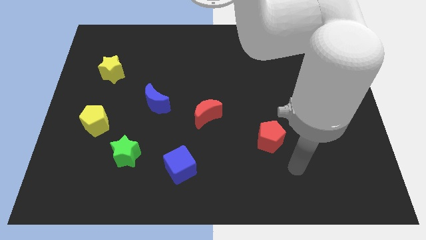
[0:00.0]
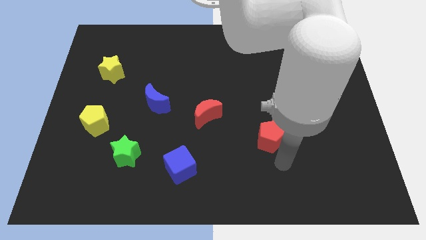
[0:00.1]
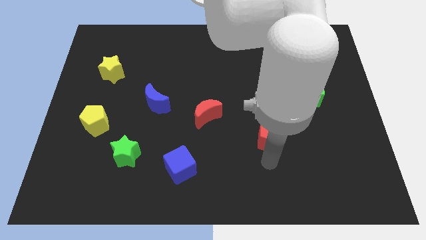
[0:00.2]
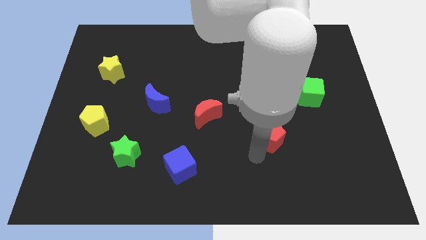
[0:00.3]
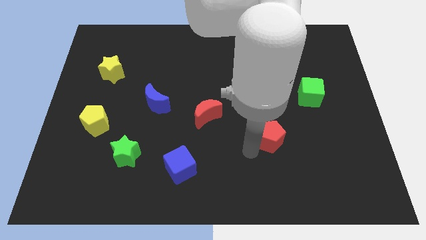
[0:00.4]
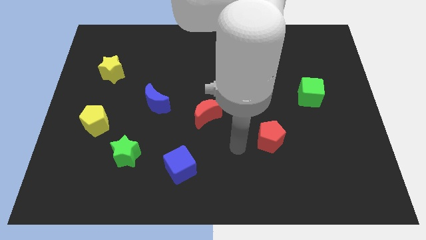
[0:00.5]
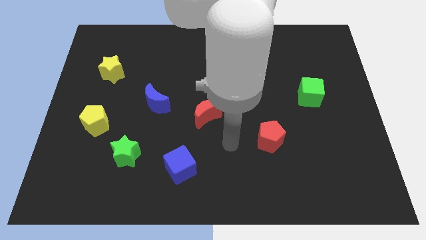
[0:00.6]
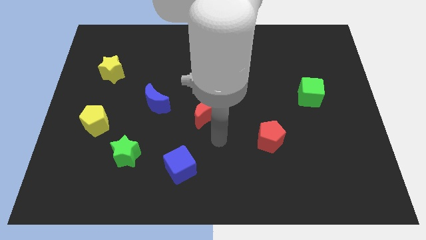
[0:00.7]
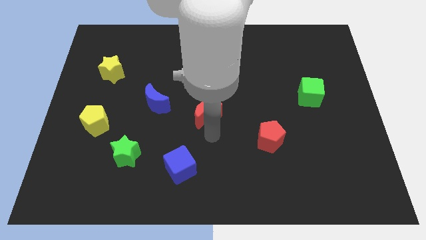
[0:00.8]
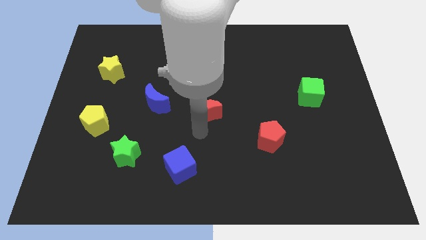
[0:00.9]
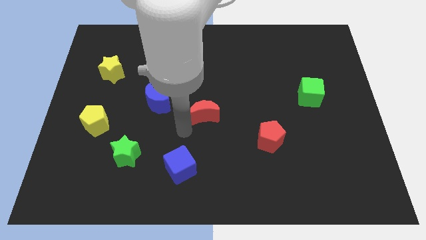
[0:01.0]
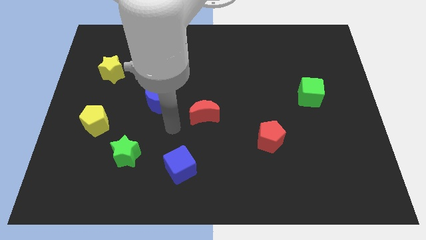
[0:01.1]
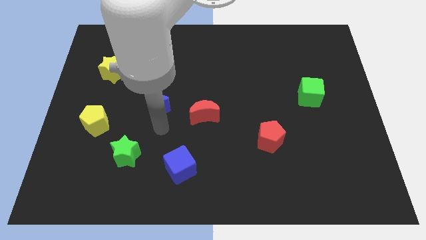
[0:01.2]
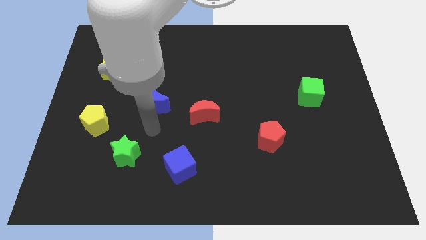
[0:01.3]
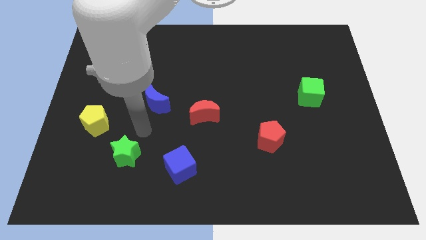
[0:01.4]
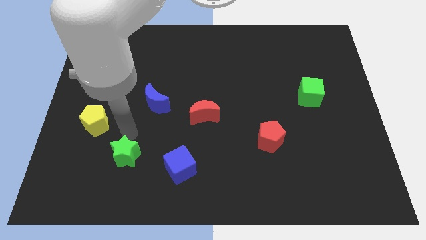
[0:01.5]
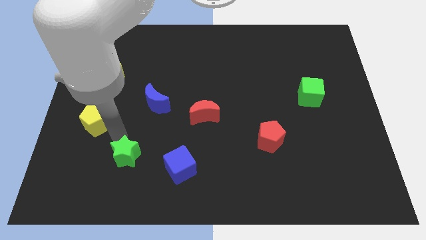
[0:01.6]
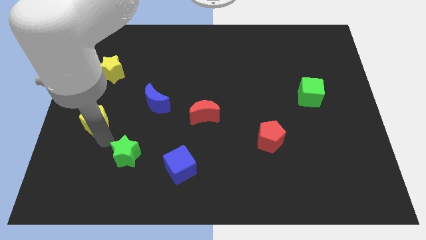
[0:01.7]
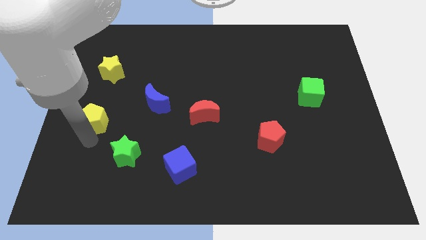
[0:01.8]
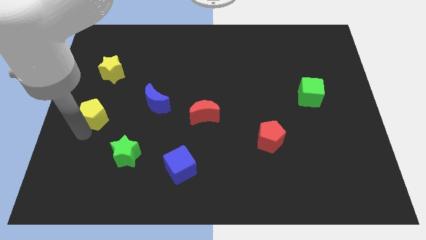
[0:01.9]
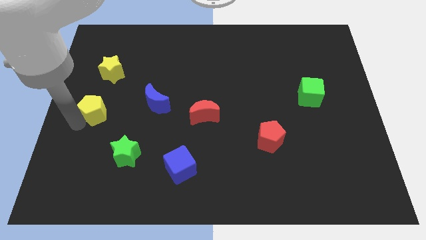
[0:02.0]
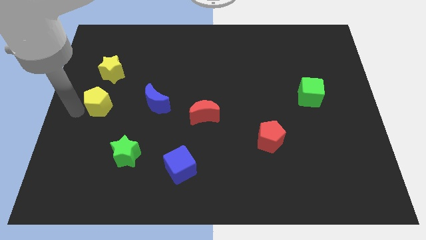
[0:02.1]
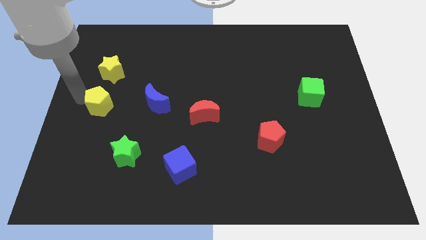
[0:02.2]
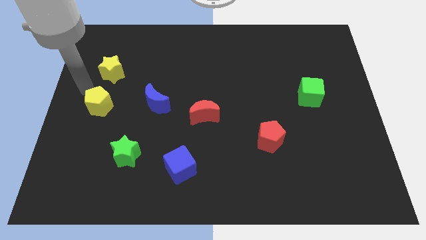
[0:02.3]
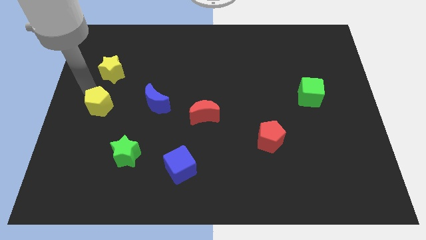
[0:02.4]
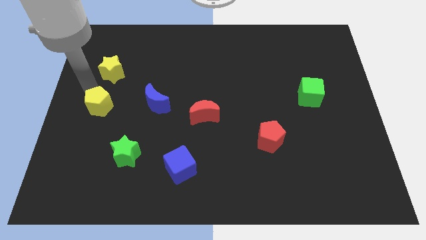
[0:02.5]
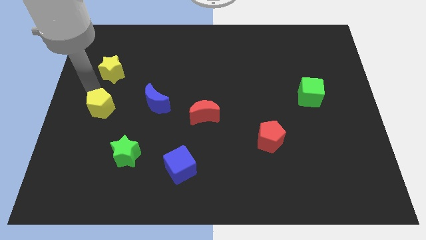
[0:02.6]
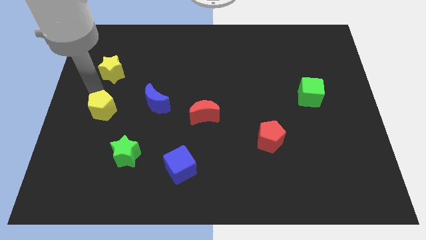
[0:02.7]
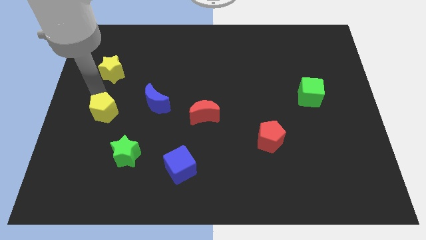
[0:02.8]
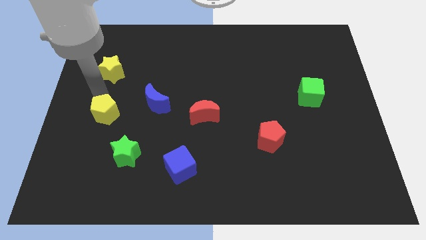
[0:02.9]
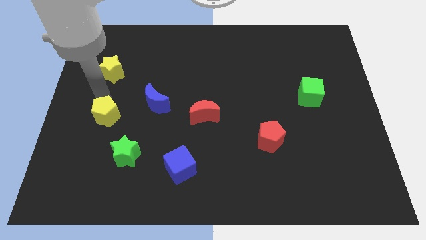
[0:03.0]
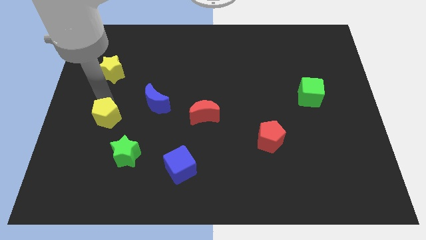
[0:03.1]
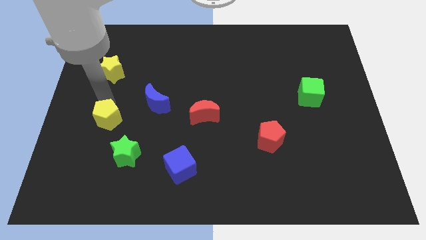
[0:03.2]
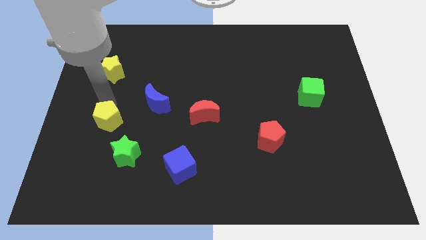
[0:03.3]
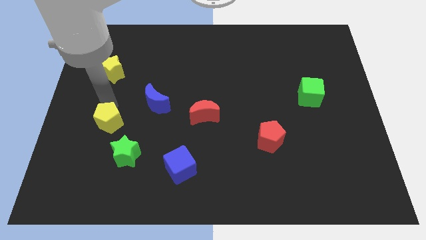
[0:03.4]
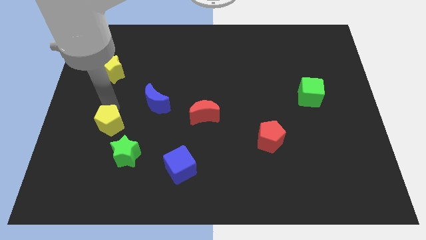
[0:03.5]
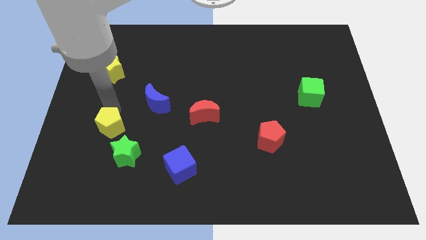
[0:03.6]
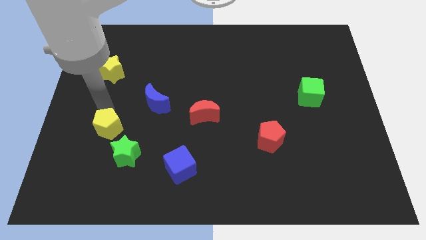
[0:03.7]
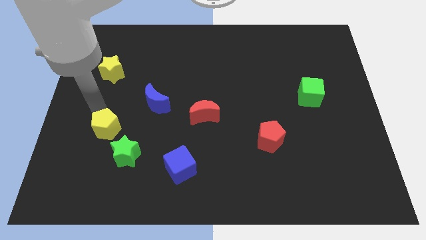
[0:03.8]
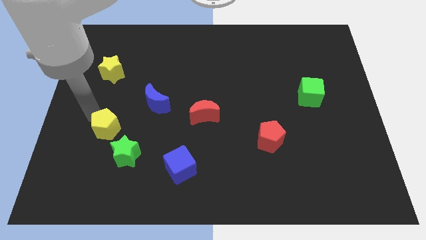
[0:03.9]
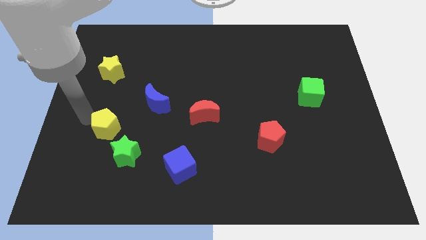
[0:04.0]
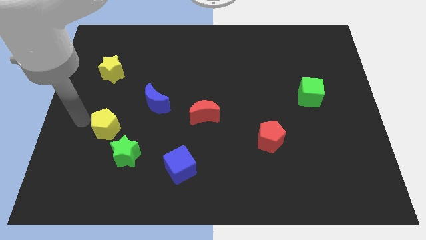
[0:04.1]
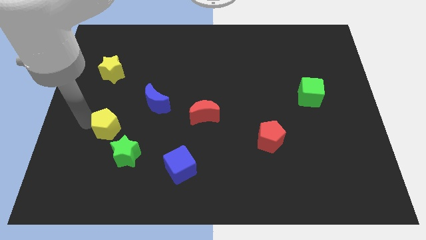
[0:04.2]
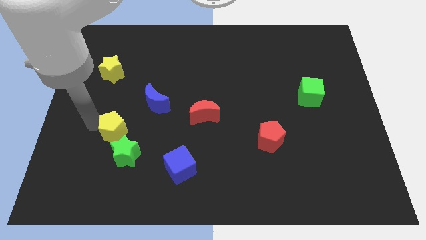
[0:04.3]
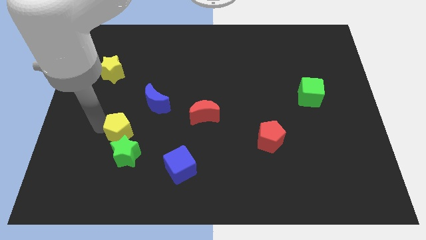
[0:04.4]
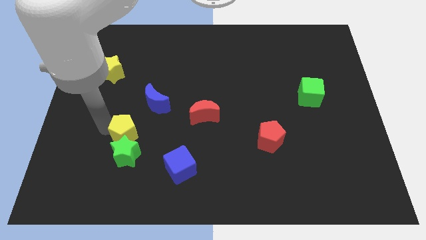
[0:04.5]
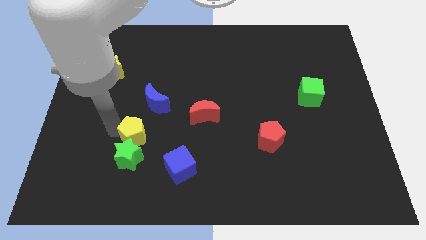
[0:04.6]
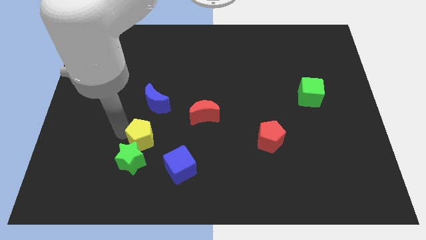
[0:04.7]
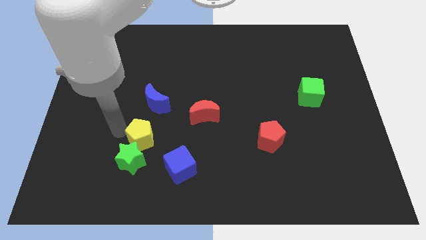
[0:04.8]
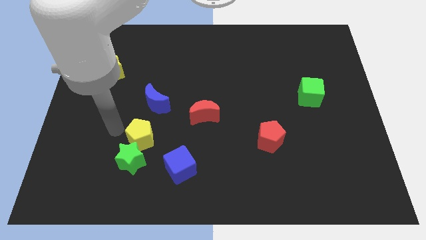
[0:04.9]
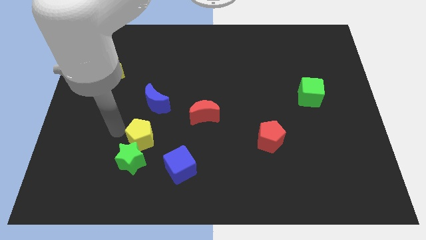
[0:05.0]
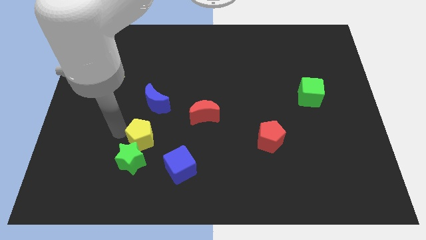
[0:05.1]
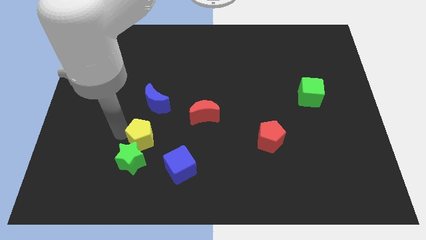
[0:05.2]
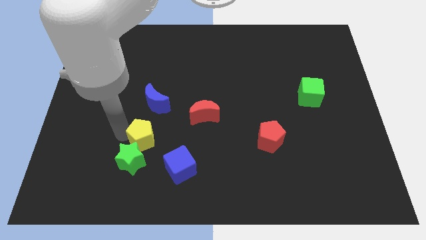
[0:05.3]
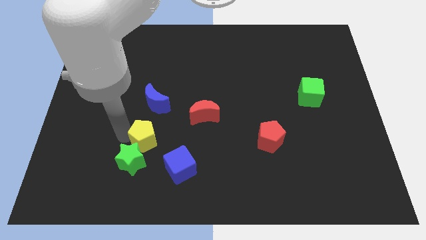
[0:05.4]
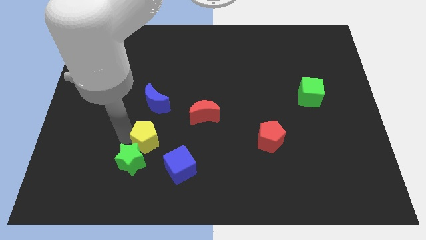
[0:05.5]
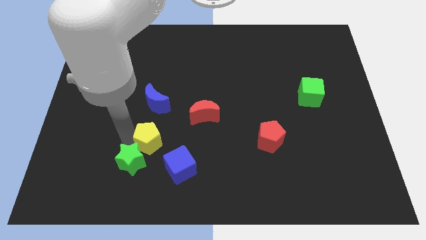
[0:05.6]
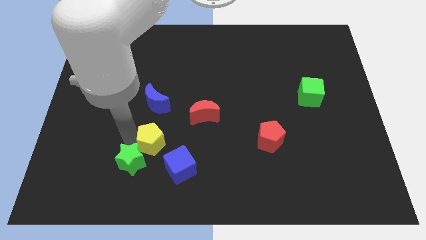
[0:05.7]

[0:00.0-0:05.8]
slide the yellow pentagon to the right side of the green star

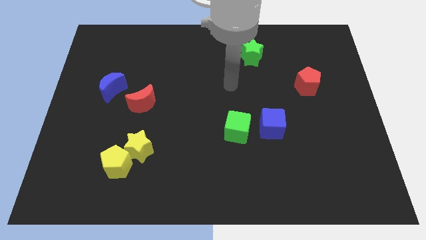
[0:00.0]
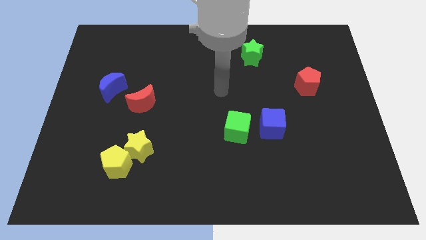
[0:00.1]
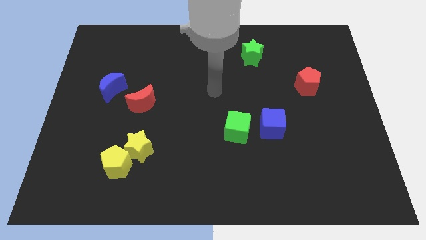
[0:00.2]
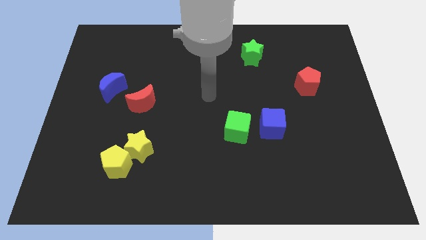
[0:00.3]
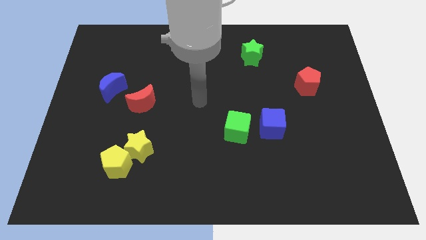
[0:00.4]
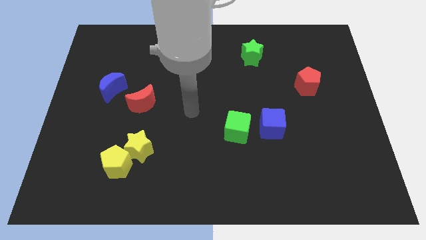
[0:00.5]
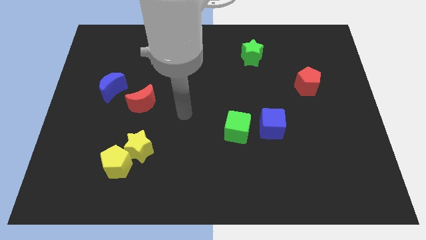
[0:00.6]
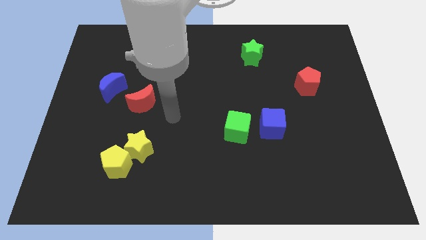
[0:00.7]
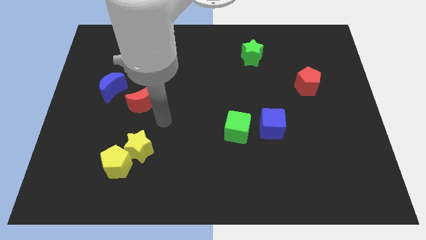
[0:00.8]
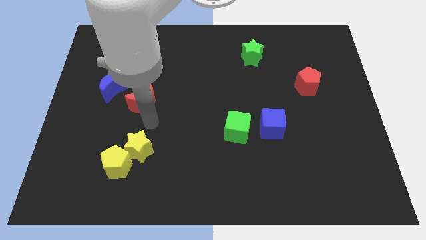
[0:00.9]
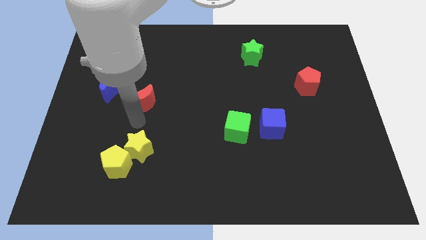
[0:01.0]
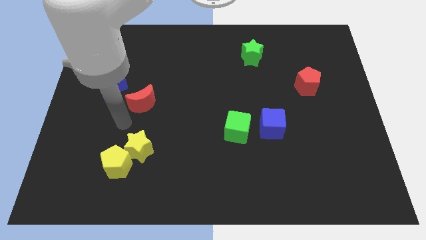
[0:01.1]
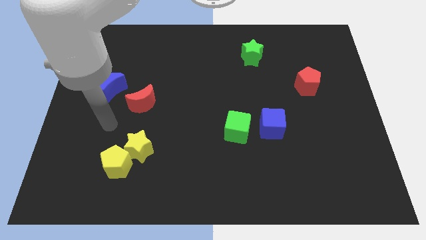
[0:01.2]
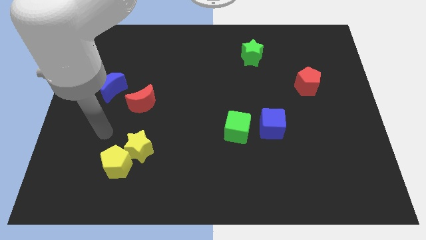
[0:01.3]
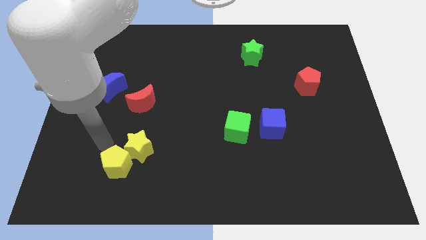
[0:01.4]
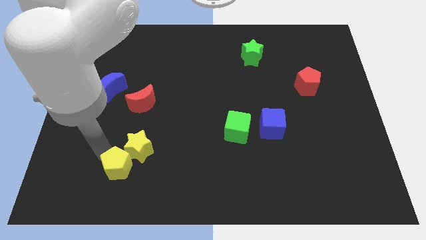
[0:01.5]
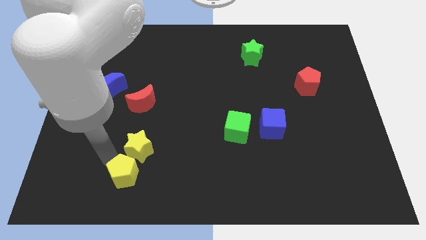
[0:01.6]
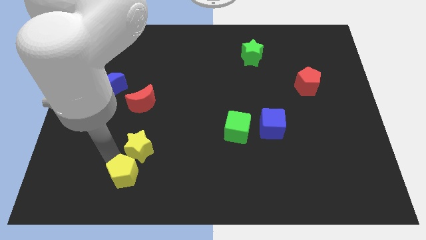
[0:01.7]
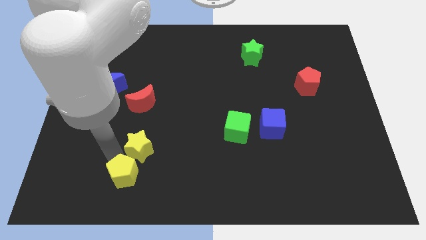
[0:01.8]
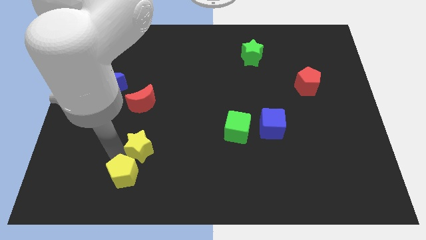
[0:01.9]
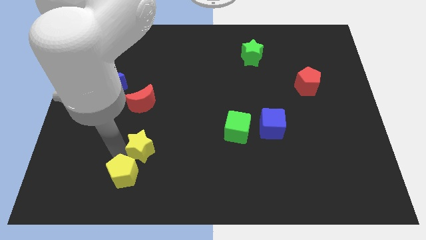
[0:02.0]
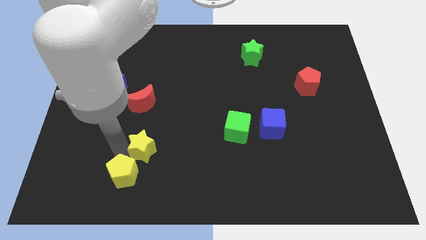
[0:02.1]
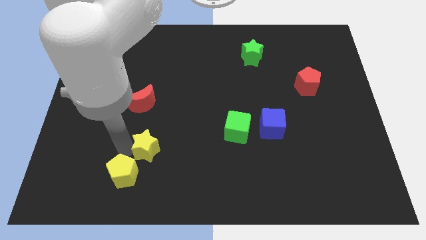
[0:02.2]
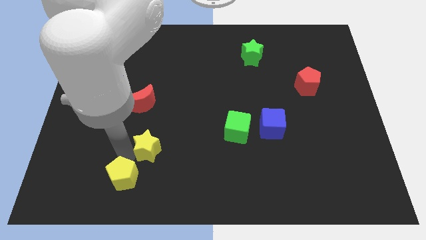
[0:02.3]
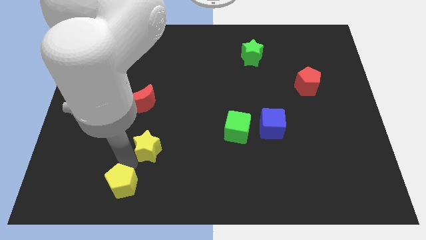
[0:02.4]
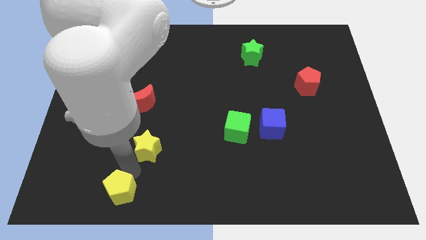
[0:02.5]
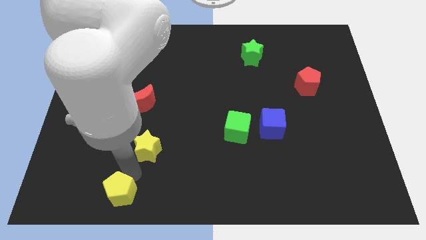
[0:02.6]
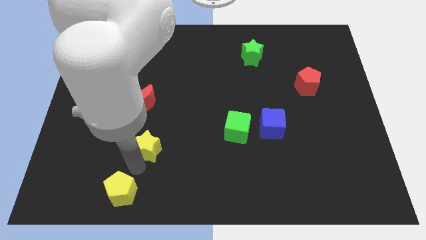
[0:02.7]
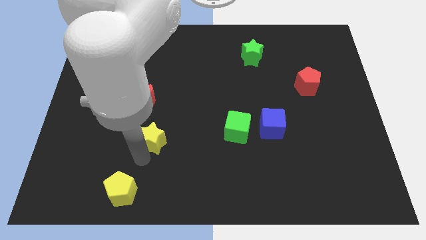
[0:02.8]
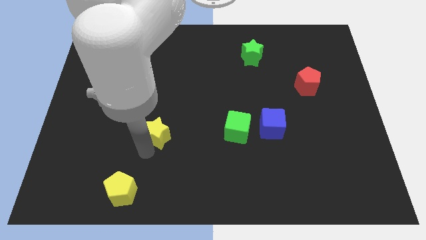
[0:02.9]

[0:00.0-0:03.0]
slide the yellow star diagonally down and to the right of the red moon
